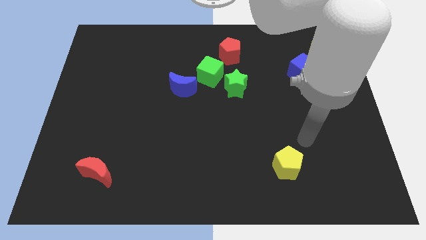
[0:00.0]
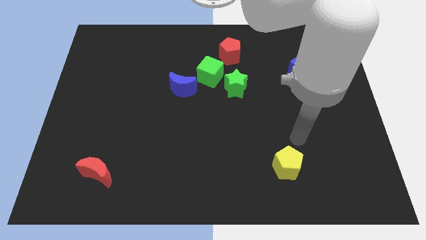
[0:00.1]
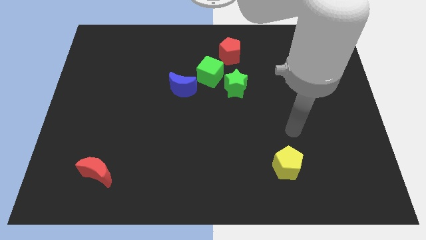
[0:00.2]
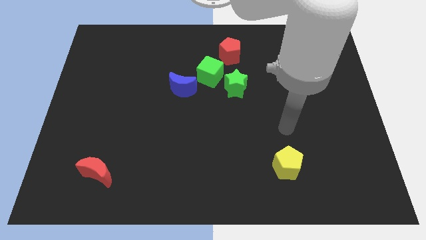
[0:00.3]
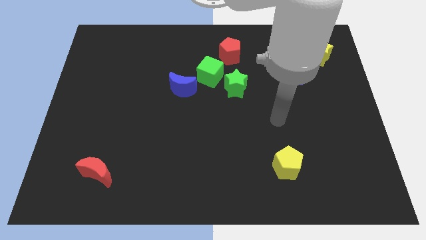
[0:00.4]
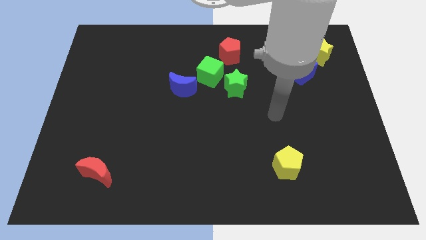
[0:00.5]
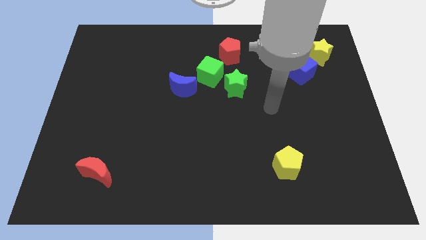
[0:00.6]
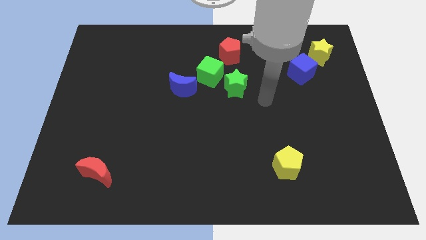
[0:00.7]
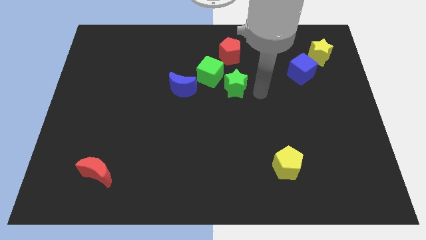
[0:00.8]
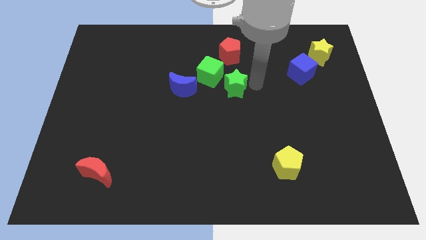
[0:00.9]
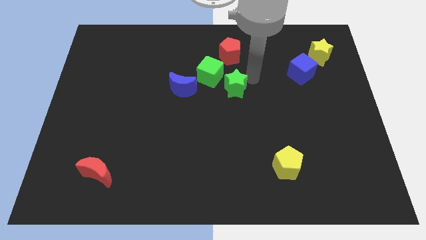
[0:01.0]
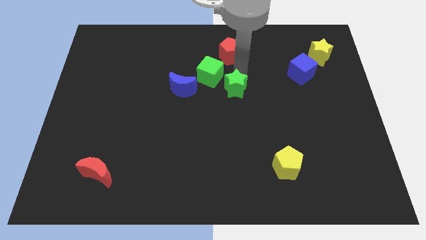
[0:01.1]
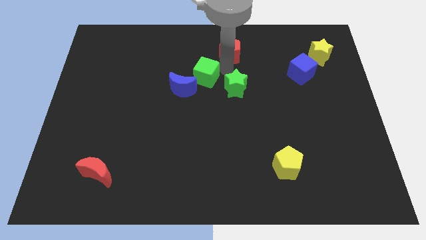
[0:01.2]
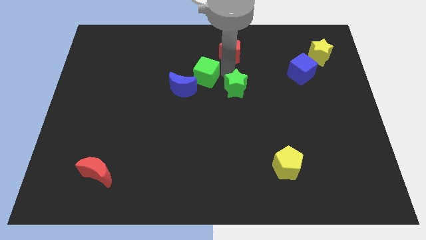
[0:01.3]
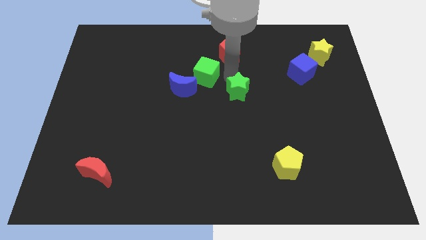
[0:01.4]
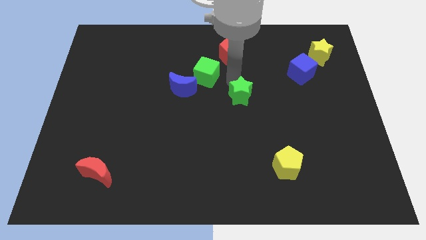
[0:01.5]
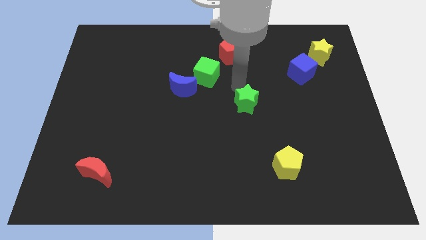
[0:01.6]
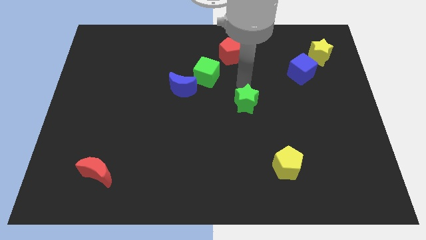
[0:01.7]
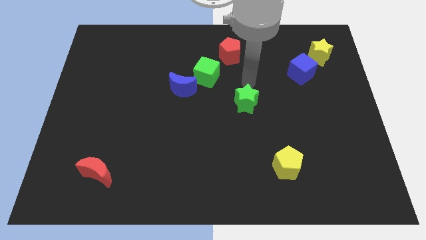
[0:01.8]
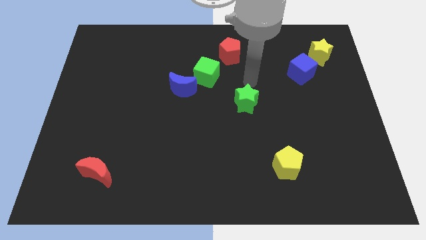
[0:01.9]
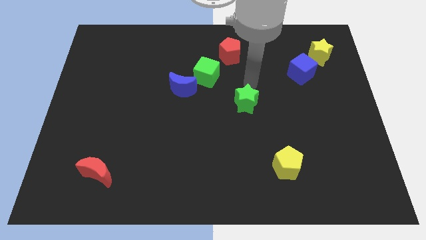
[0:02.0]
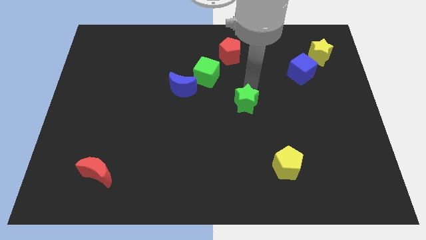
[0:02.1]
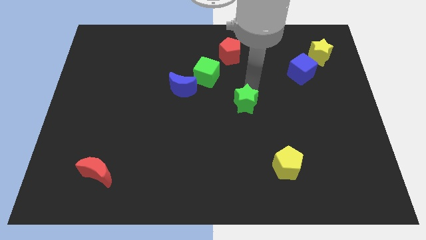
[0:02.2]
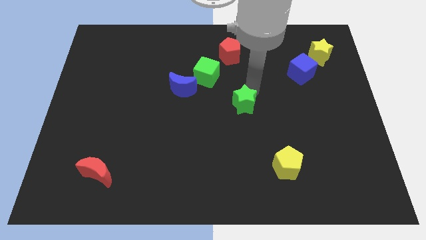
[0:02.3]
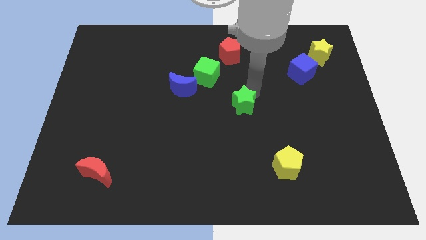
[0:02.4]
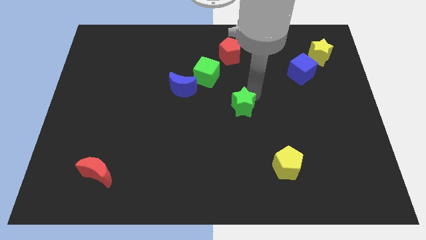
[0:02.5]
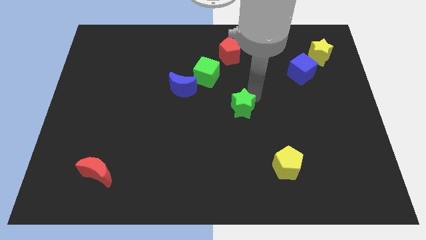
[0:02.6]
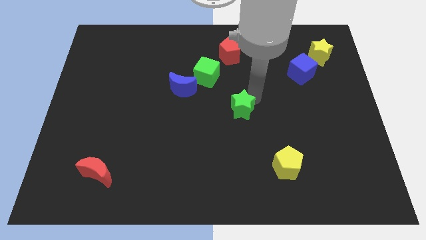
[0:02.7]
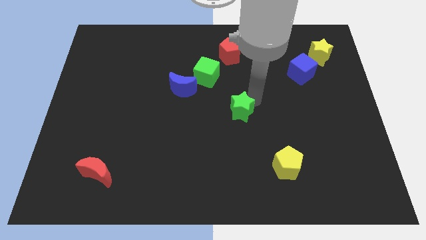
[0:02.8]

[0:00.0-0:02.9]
slightly move the green star down

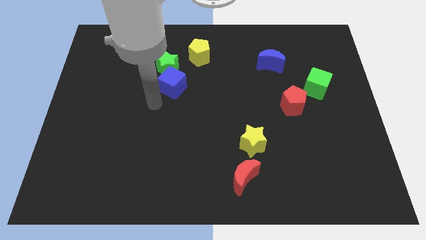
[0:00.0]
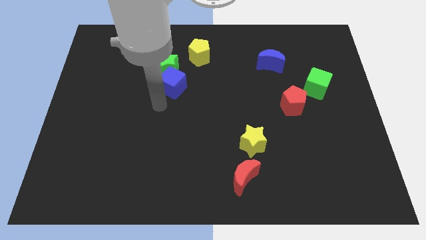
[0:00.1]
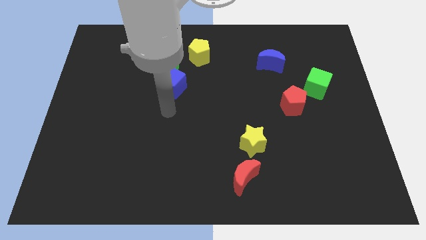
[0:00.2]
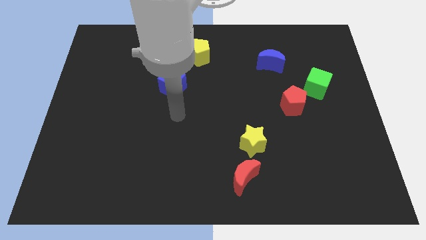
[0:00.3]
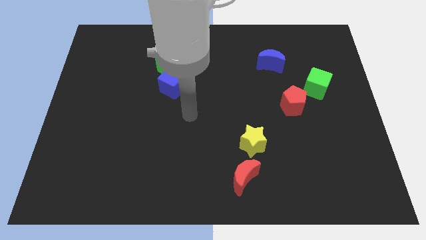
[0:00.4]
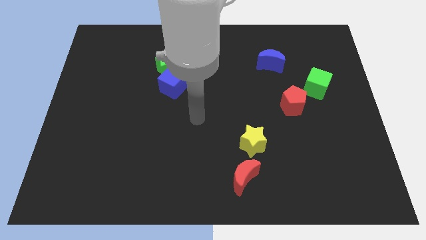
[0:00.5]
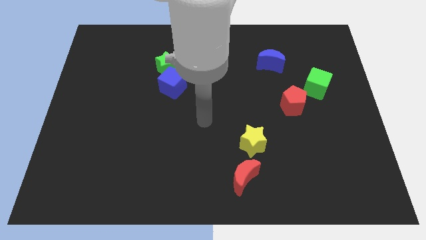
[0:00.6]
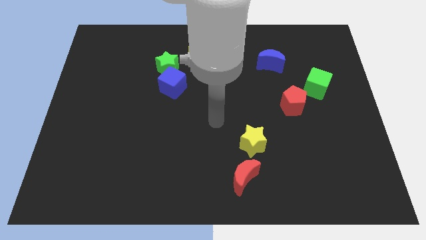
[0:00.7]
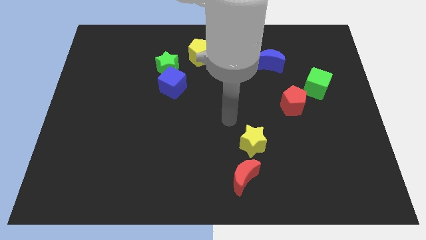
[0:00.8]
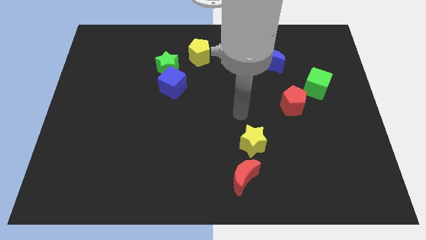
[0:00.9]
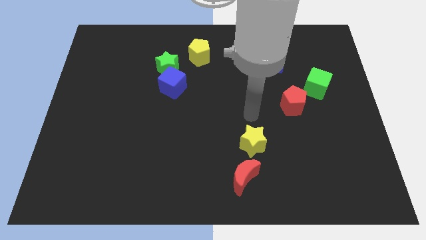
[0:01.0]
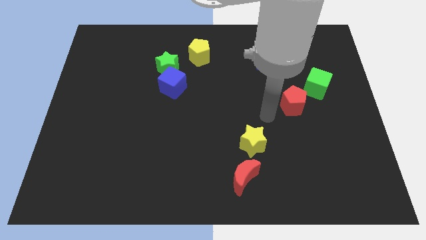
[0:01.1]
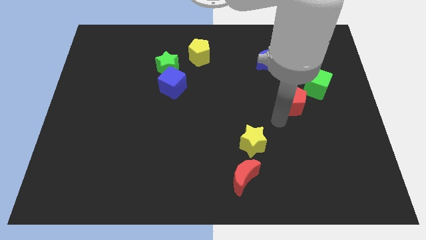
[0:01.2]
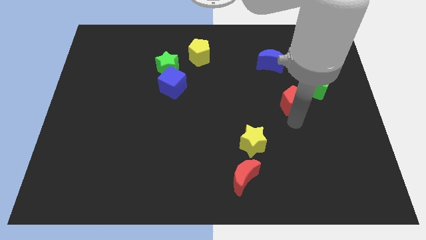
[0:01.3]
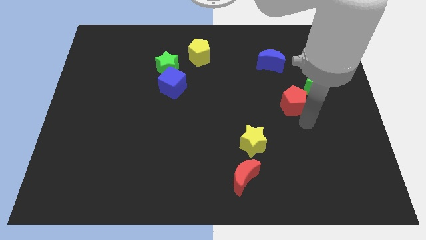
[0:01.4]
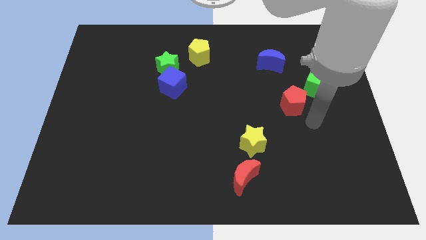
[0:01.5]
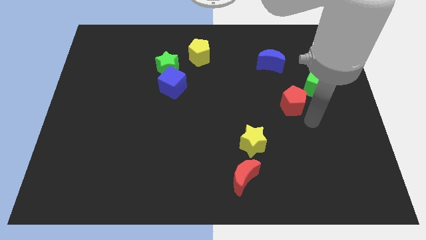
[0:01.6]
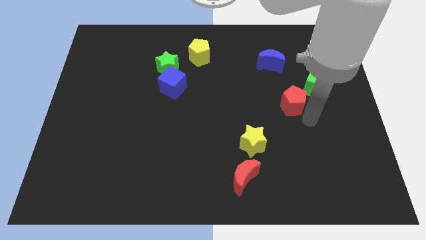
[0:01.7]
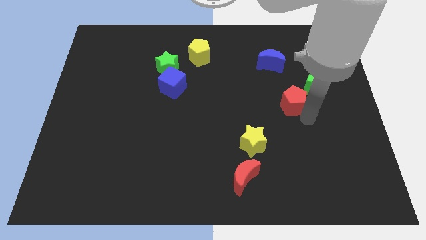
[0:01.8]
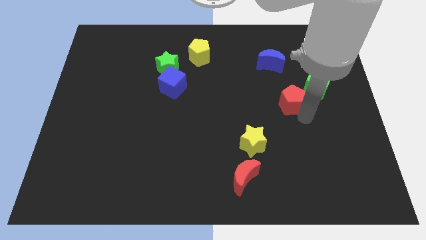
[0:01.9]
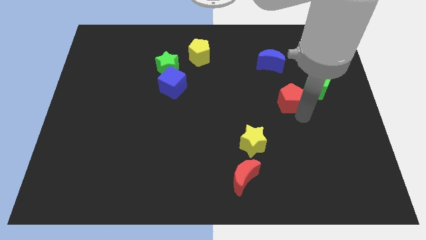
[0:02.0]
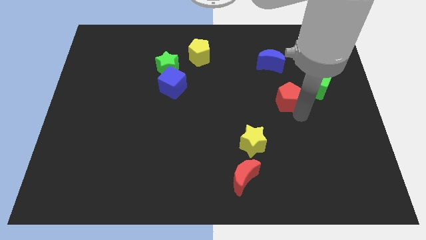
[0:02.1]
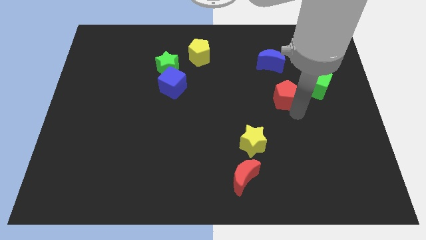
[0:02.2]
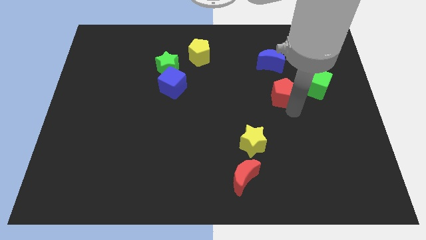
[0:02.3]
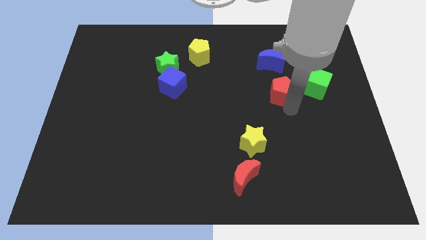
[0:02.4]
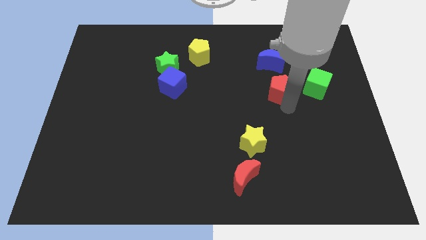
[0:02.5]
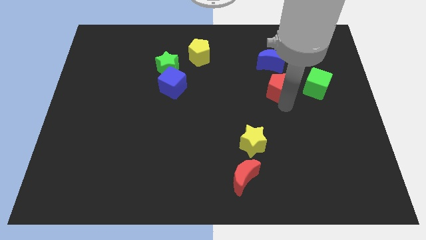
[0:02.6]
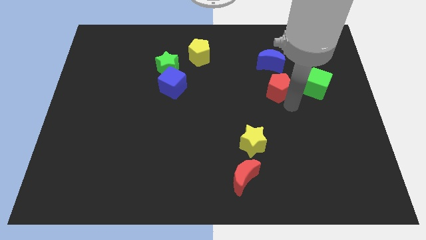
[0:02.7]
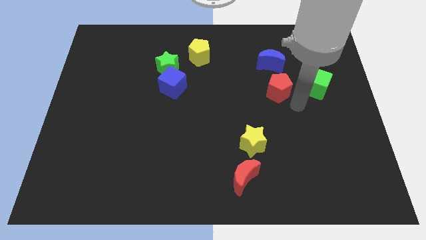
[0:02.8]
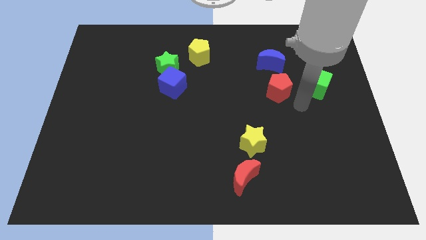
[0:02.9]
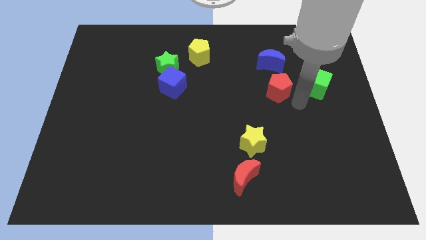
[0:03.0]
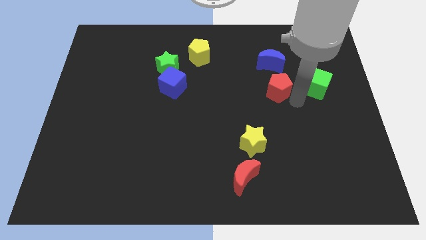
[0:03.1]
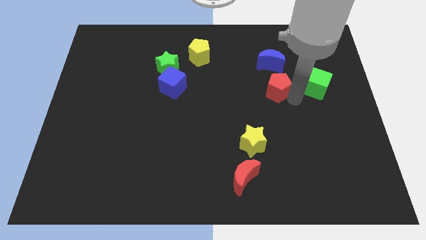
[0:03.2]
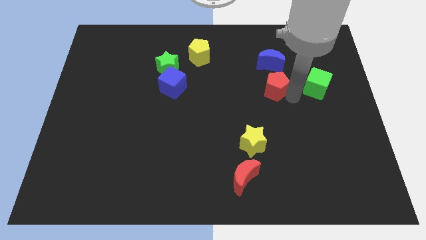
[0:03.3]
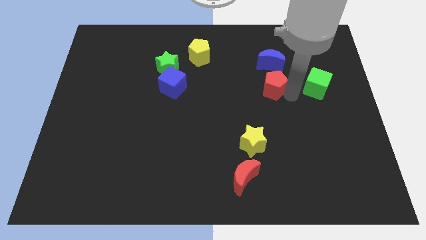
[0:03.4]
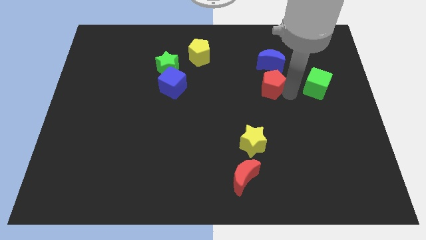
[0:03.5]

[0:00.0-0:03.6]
slightly slide the red pentagon diagonally upwards and to the left

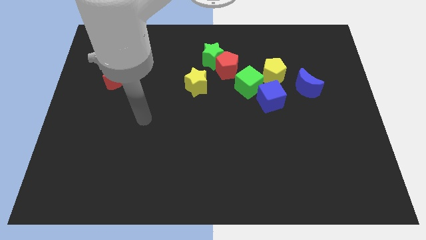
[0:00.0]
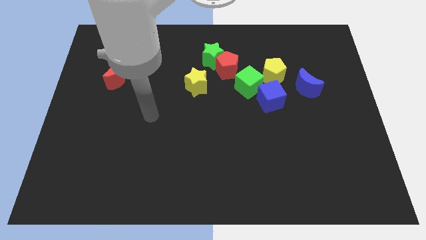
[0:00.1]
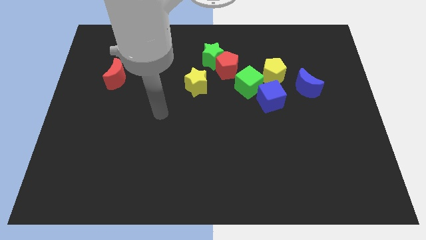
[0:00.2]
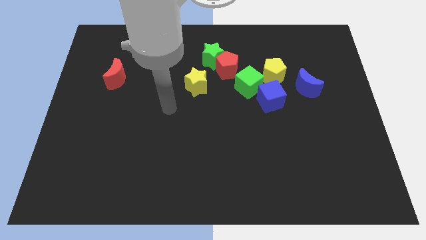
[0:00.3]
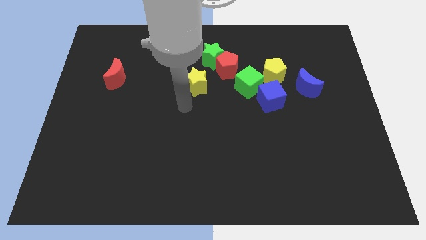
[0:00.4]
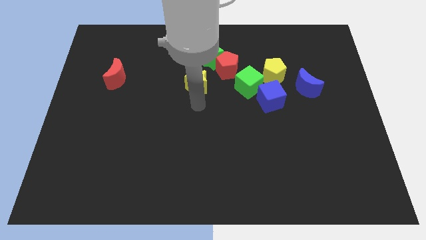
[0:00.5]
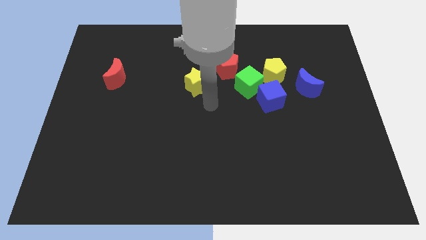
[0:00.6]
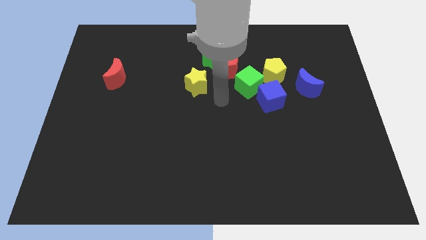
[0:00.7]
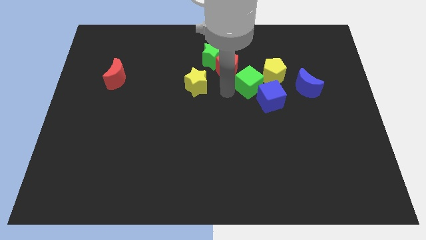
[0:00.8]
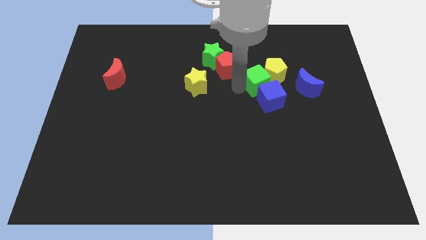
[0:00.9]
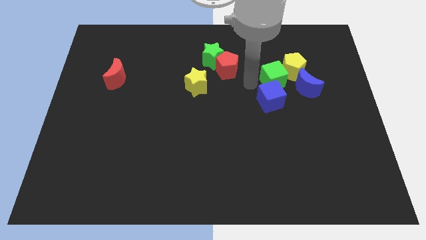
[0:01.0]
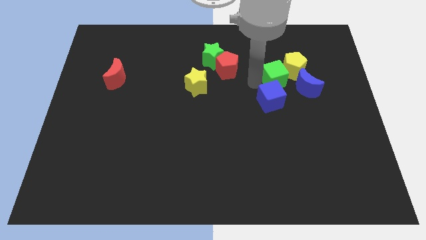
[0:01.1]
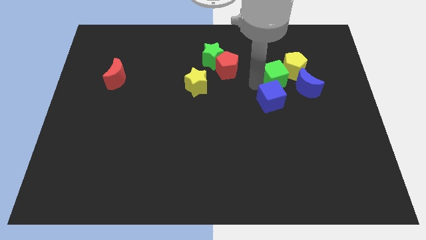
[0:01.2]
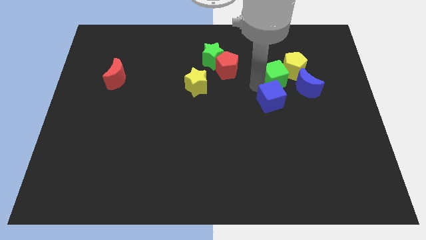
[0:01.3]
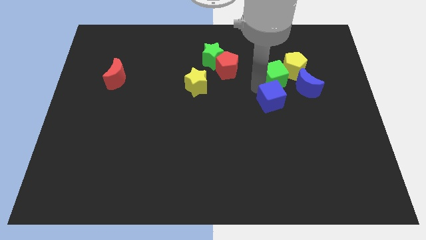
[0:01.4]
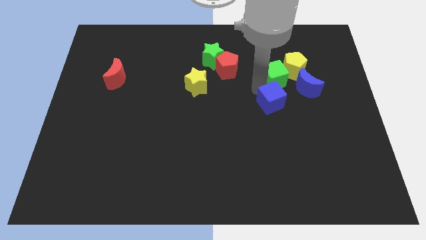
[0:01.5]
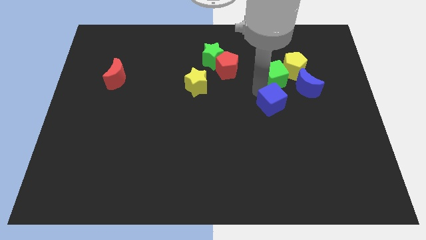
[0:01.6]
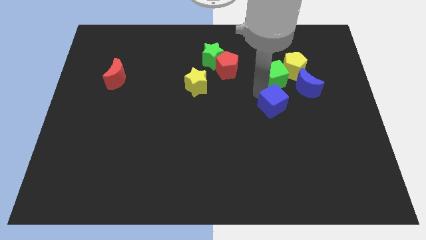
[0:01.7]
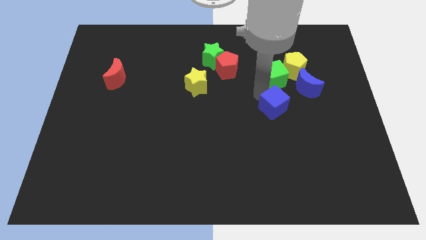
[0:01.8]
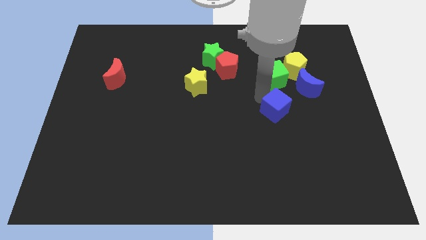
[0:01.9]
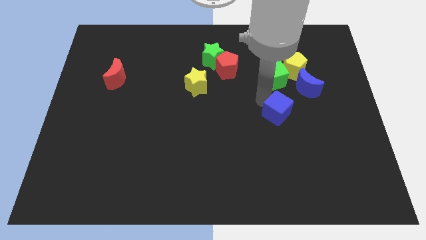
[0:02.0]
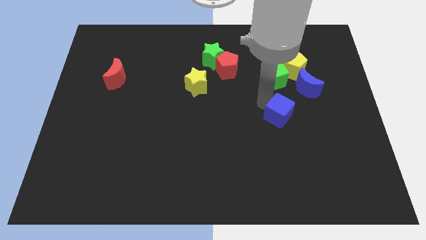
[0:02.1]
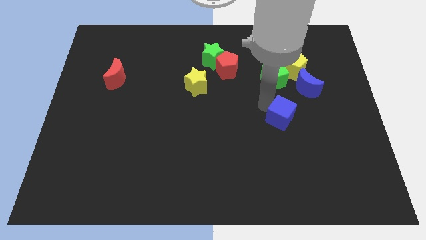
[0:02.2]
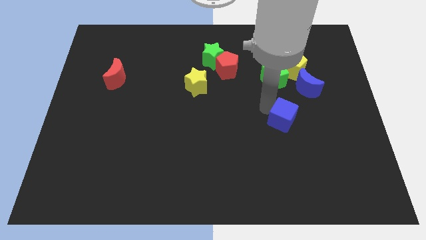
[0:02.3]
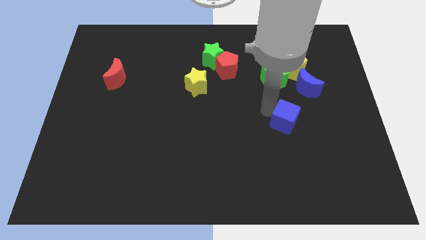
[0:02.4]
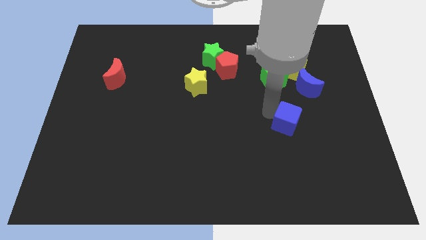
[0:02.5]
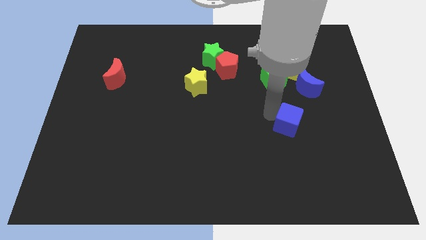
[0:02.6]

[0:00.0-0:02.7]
slide the blue cube slightly diagonally downwards and right
